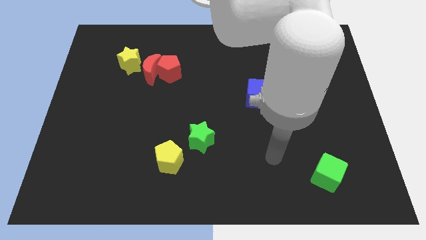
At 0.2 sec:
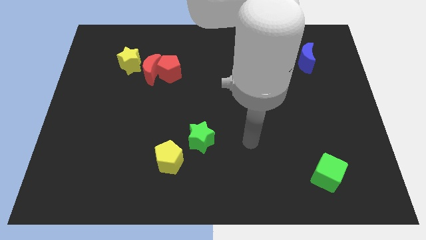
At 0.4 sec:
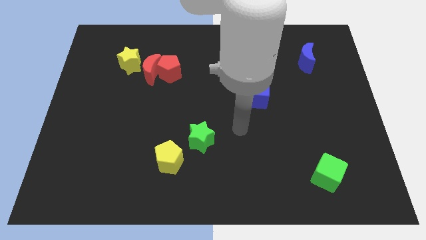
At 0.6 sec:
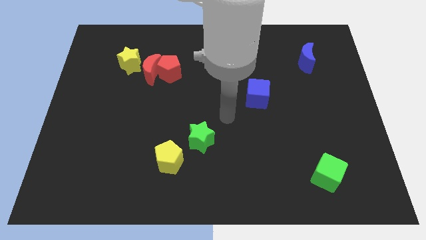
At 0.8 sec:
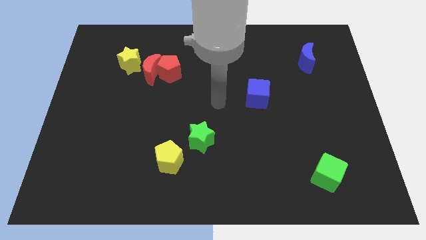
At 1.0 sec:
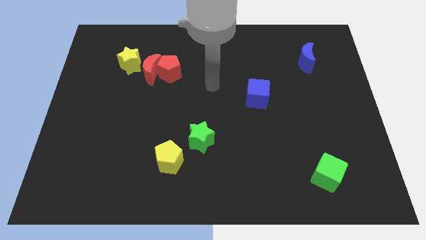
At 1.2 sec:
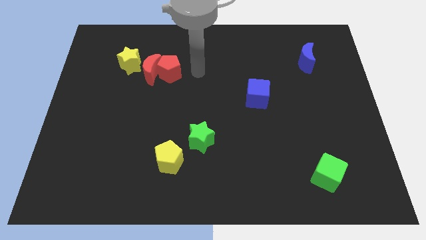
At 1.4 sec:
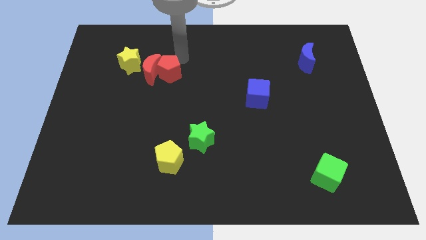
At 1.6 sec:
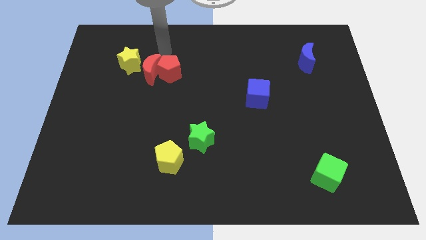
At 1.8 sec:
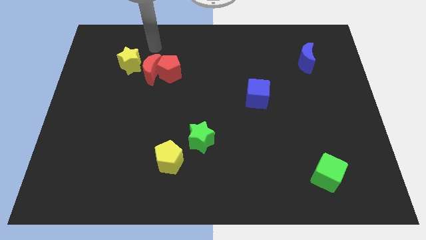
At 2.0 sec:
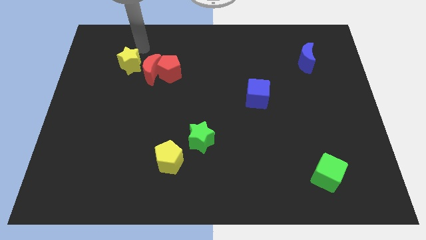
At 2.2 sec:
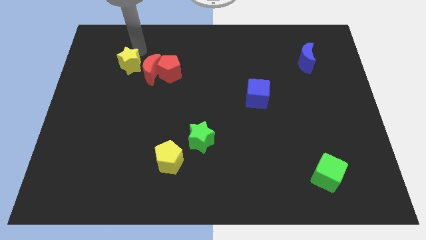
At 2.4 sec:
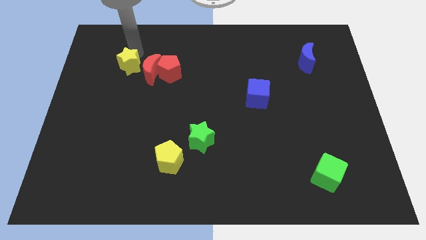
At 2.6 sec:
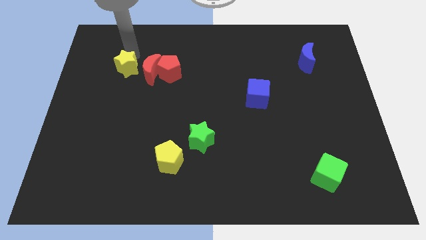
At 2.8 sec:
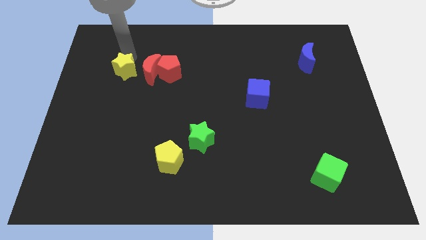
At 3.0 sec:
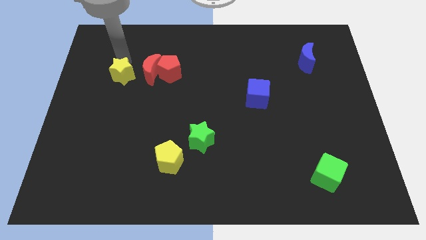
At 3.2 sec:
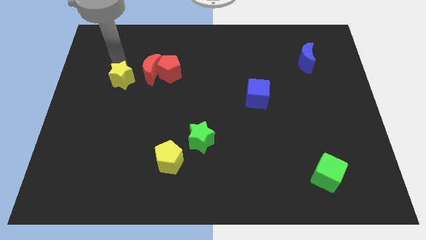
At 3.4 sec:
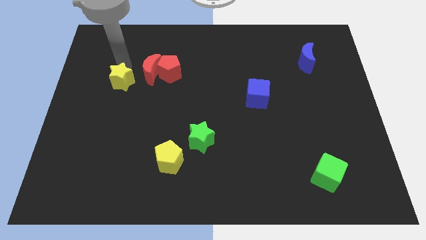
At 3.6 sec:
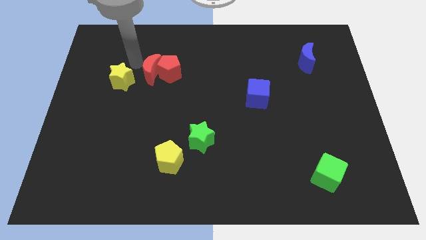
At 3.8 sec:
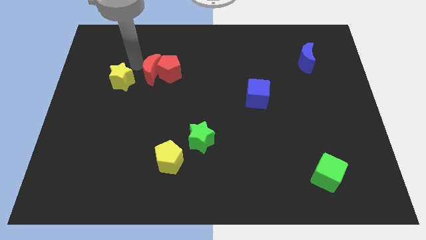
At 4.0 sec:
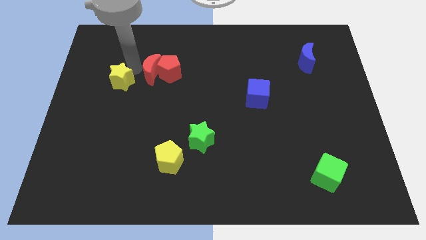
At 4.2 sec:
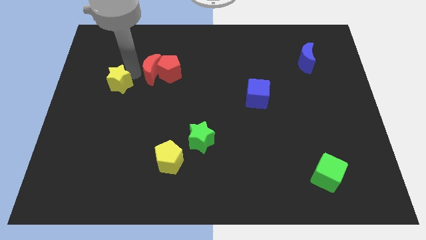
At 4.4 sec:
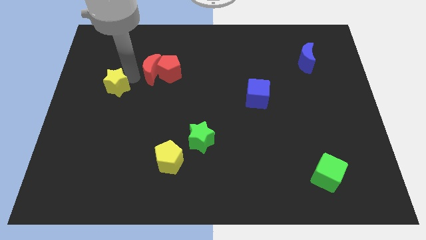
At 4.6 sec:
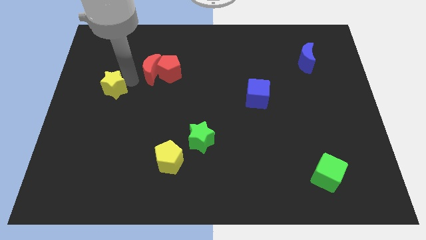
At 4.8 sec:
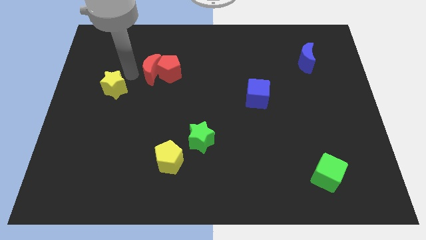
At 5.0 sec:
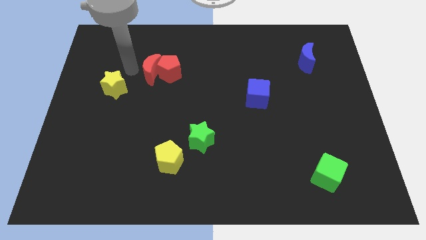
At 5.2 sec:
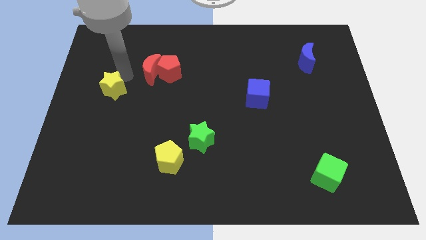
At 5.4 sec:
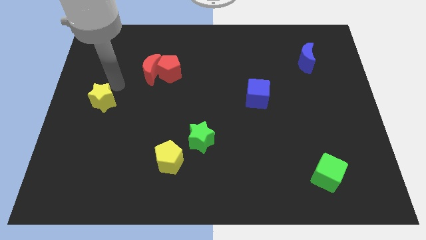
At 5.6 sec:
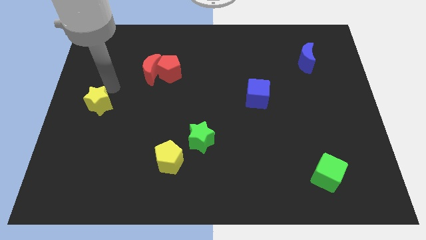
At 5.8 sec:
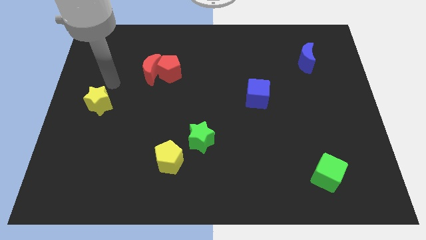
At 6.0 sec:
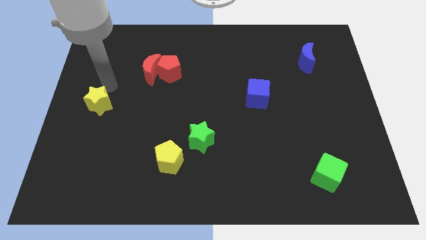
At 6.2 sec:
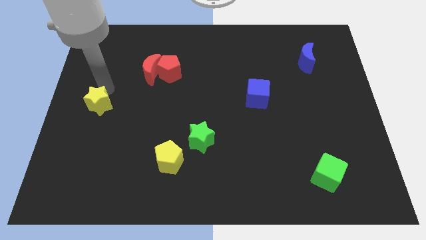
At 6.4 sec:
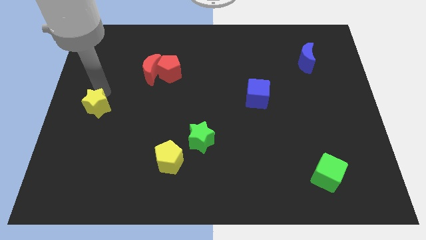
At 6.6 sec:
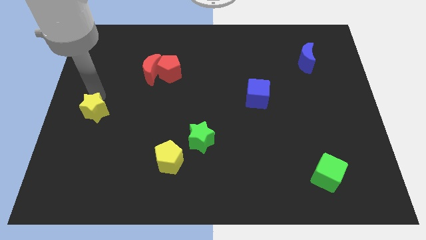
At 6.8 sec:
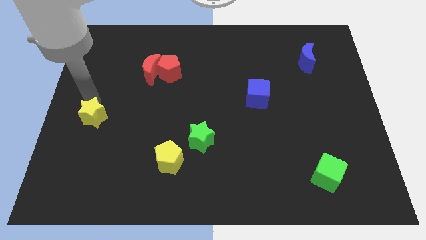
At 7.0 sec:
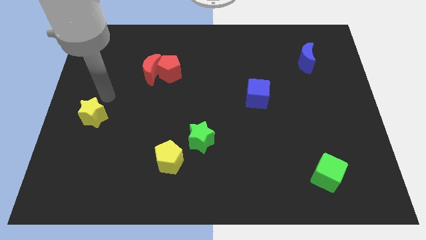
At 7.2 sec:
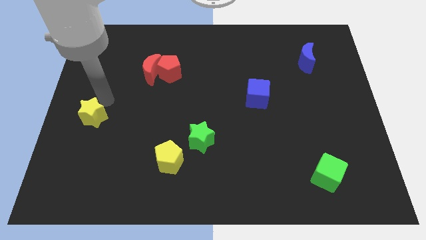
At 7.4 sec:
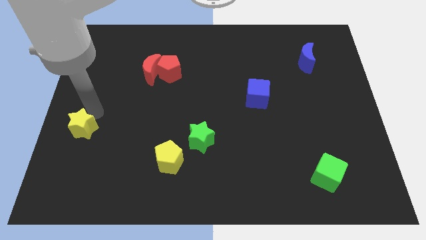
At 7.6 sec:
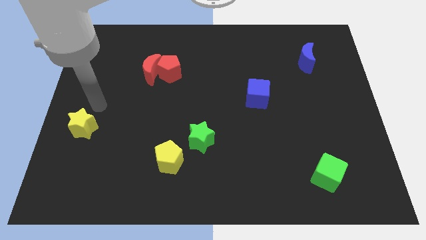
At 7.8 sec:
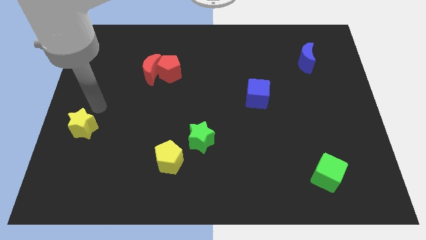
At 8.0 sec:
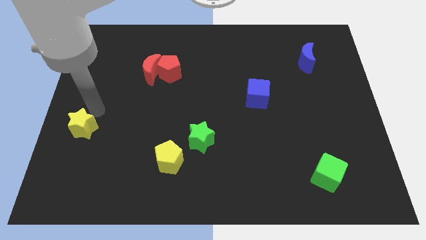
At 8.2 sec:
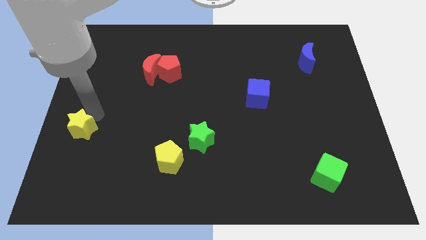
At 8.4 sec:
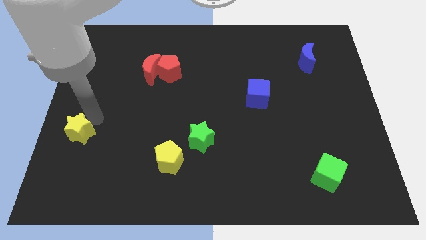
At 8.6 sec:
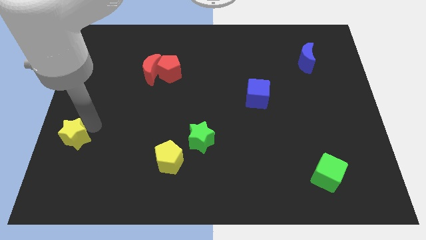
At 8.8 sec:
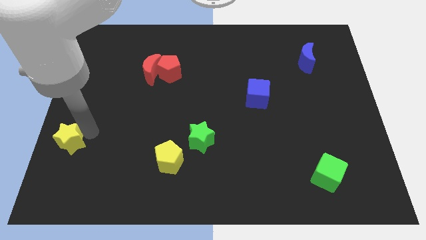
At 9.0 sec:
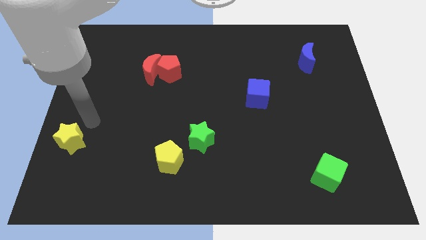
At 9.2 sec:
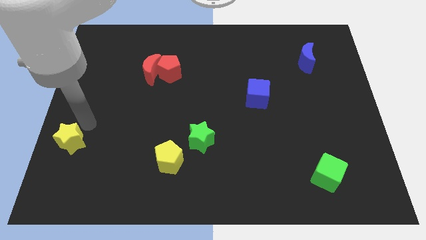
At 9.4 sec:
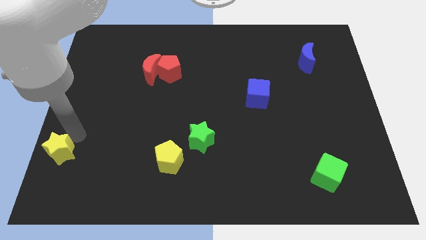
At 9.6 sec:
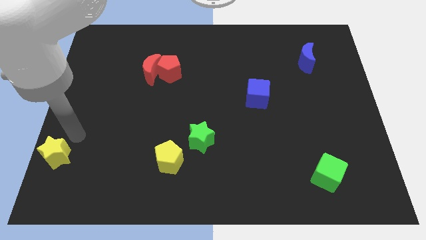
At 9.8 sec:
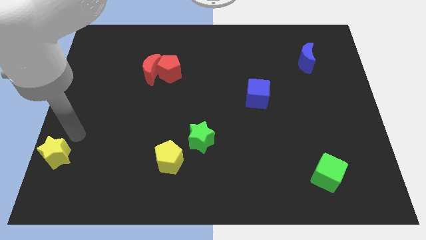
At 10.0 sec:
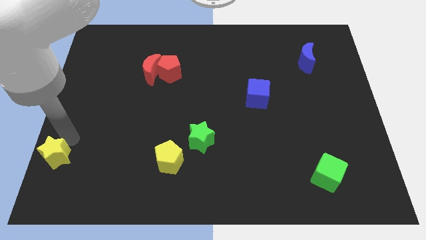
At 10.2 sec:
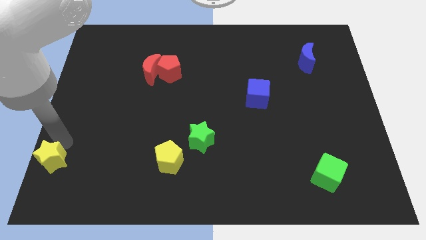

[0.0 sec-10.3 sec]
move the yellow star to the lower left corner
